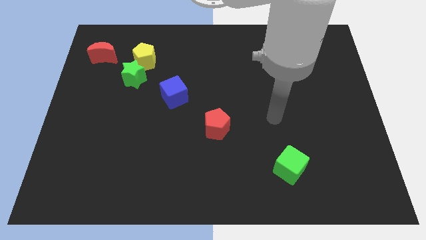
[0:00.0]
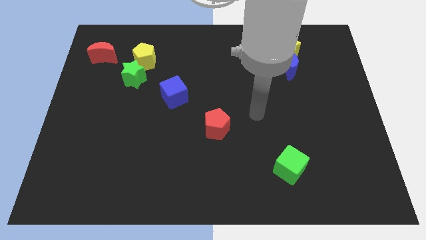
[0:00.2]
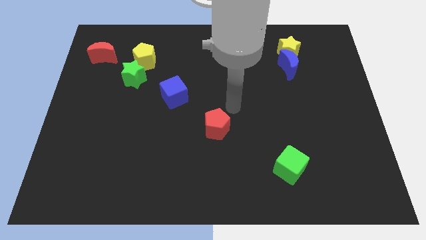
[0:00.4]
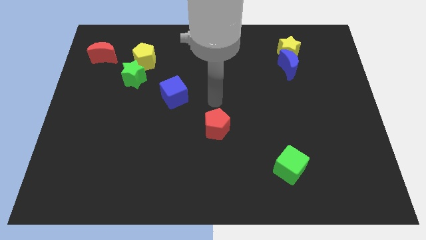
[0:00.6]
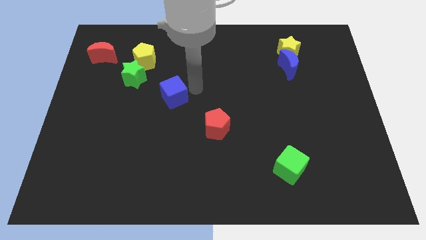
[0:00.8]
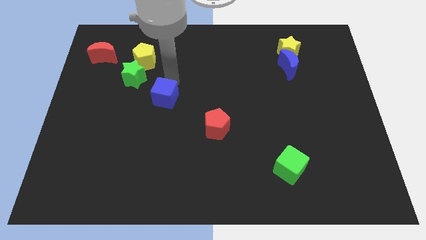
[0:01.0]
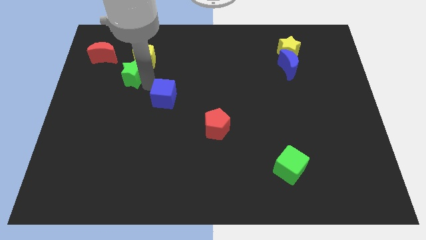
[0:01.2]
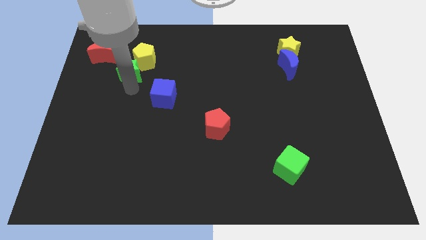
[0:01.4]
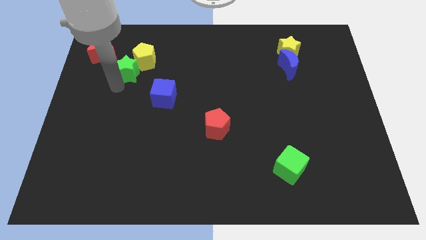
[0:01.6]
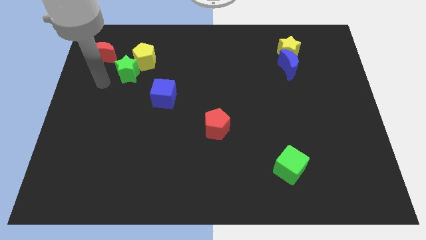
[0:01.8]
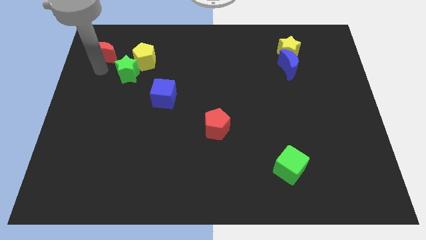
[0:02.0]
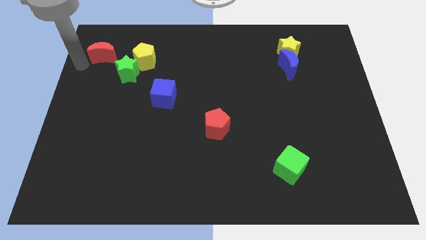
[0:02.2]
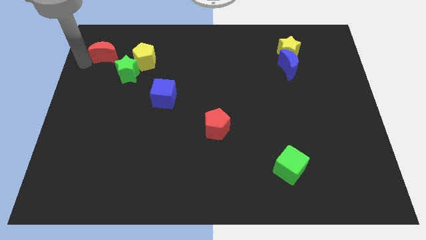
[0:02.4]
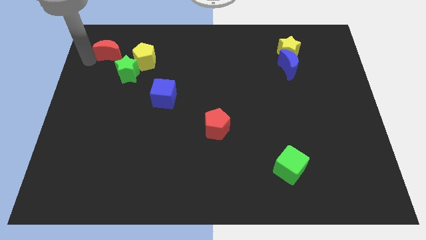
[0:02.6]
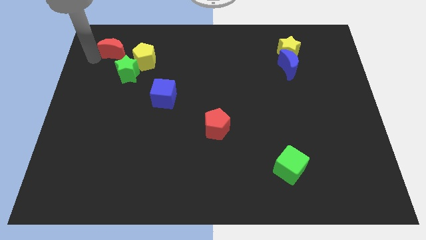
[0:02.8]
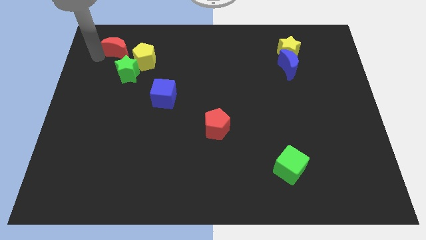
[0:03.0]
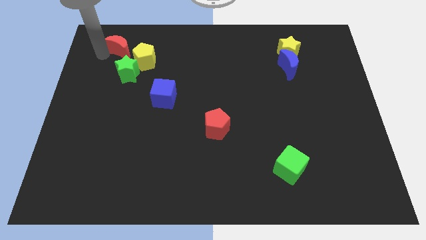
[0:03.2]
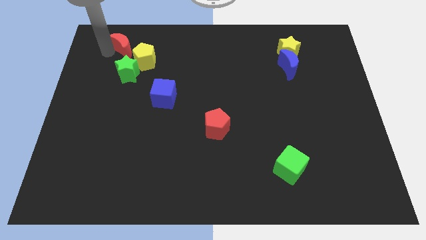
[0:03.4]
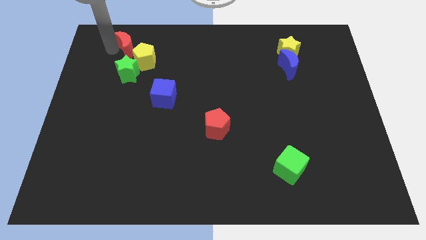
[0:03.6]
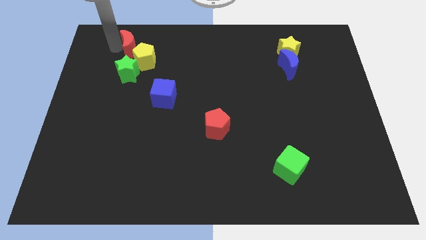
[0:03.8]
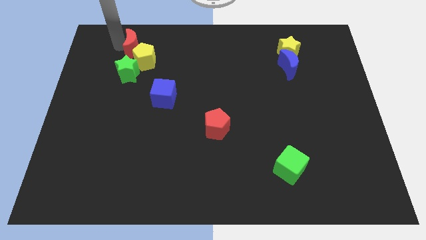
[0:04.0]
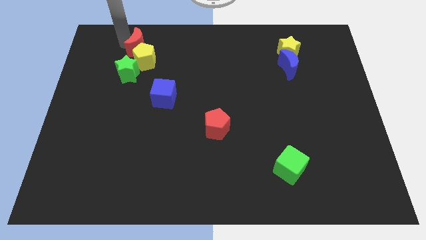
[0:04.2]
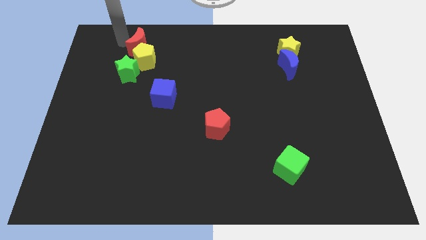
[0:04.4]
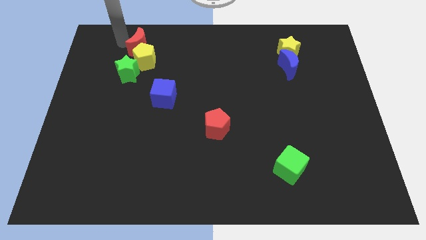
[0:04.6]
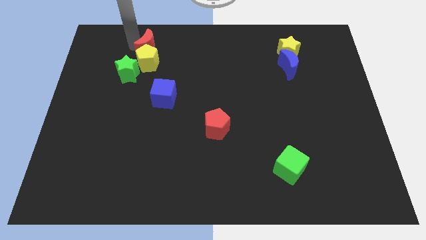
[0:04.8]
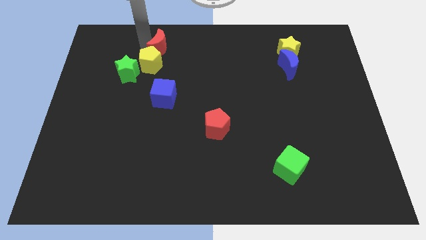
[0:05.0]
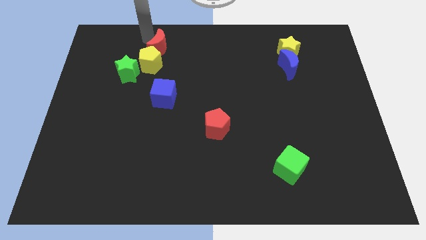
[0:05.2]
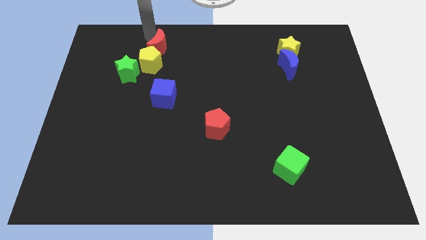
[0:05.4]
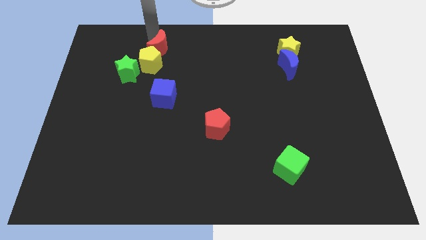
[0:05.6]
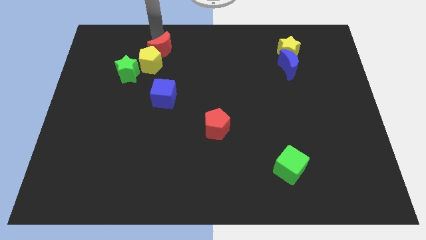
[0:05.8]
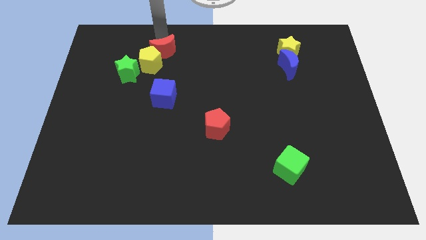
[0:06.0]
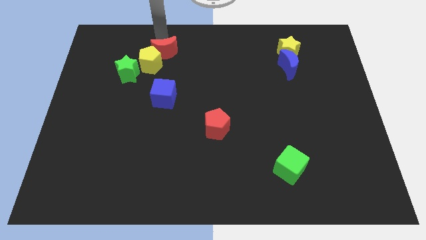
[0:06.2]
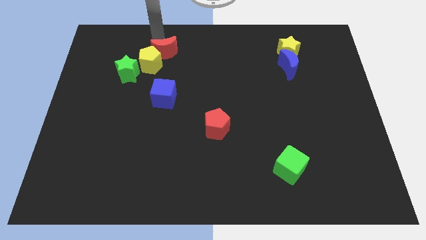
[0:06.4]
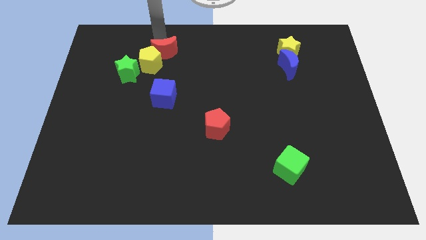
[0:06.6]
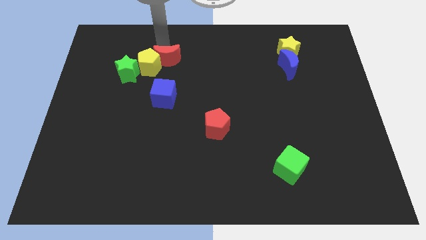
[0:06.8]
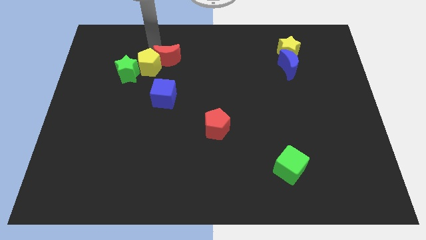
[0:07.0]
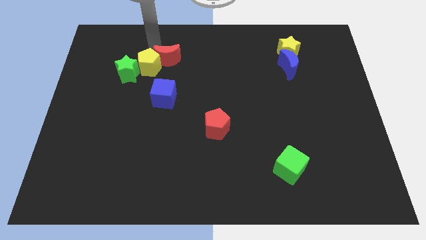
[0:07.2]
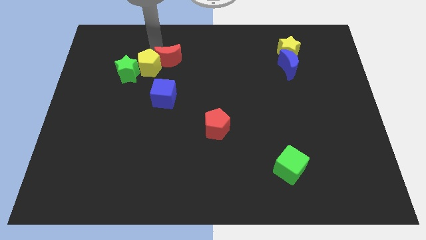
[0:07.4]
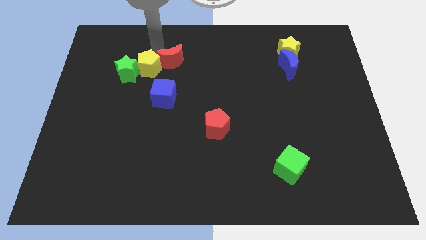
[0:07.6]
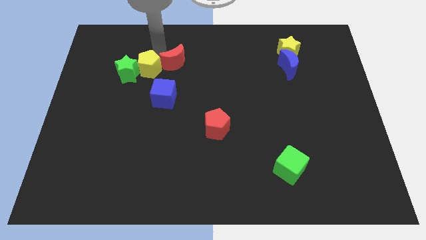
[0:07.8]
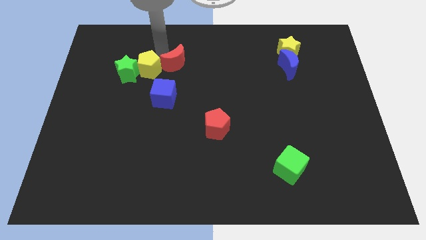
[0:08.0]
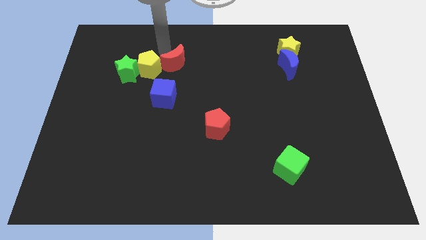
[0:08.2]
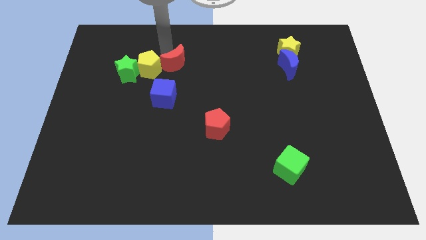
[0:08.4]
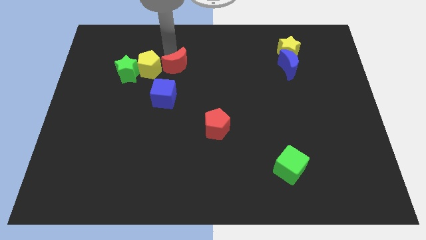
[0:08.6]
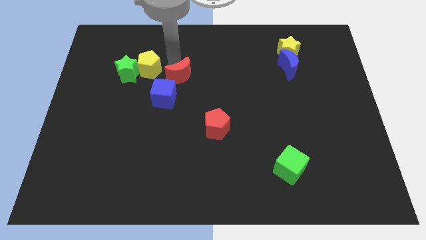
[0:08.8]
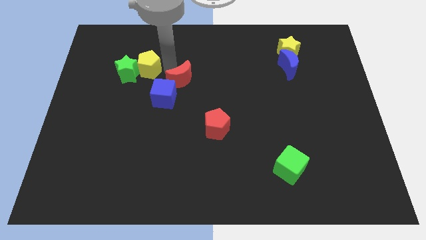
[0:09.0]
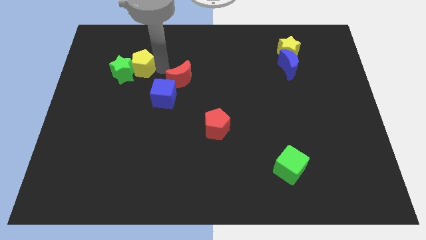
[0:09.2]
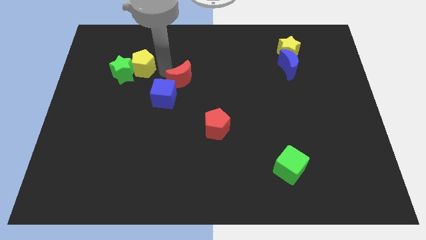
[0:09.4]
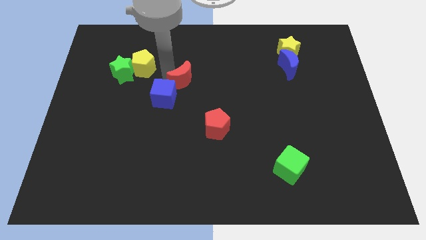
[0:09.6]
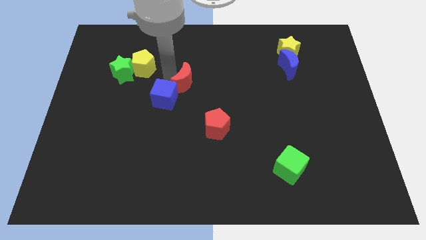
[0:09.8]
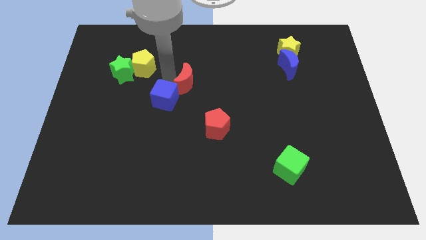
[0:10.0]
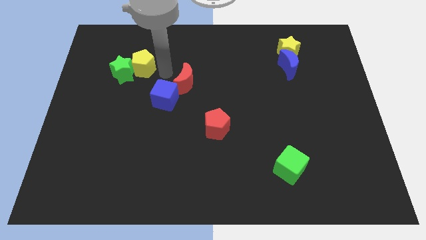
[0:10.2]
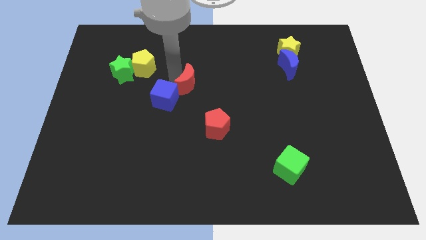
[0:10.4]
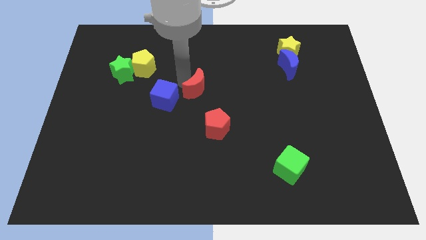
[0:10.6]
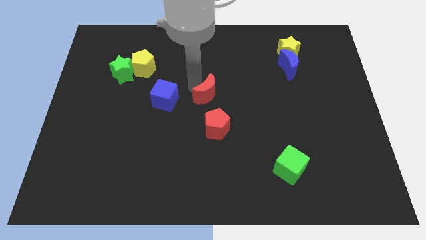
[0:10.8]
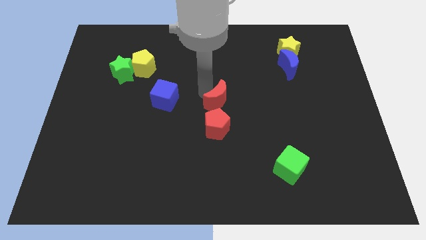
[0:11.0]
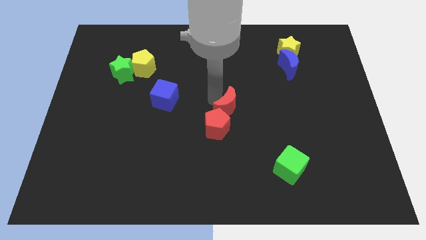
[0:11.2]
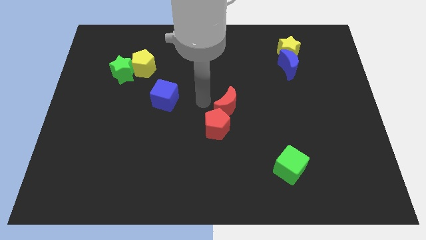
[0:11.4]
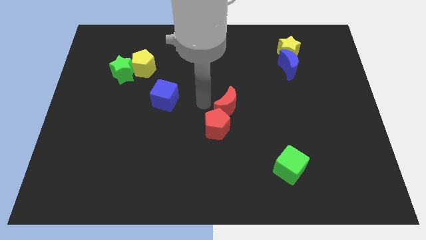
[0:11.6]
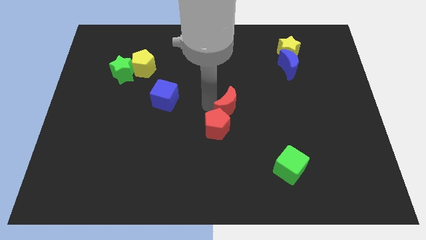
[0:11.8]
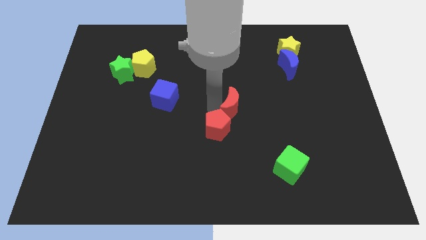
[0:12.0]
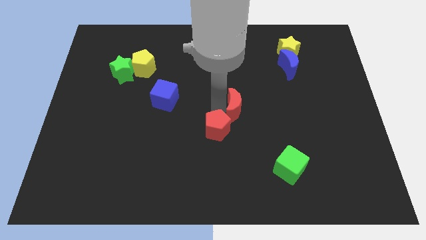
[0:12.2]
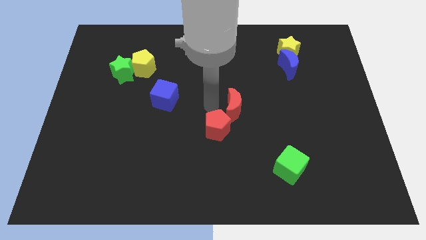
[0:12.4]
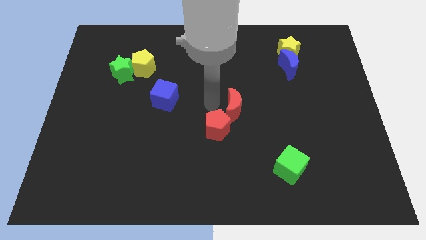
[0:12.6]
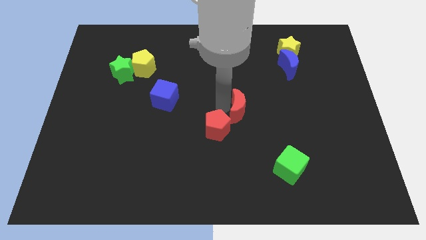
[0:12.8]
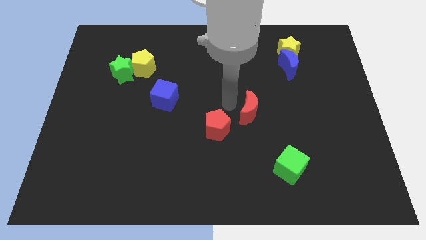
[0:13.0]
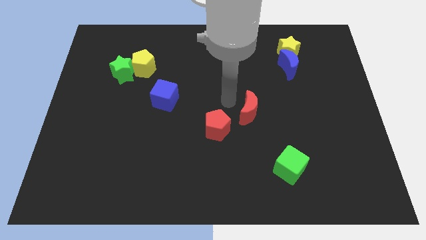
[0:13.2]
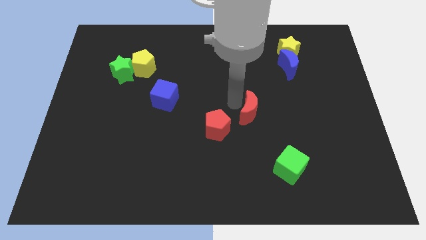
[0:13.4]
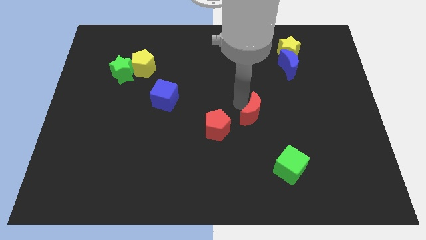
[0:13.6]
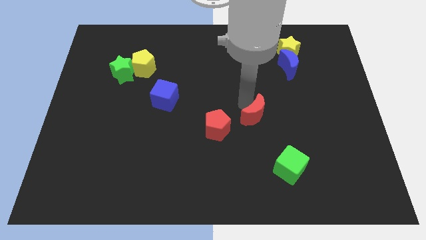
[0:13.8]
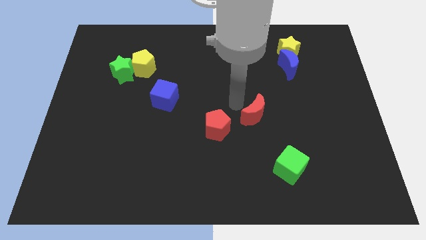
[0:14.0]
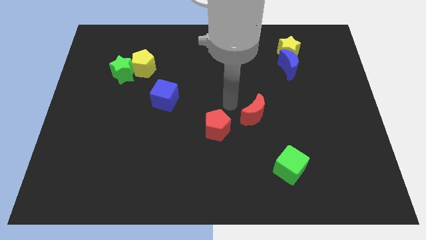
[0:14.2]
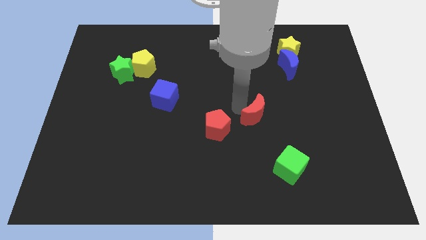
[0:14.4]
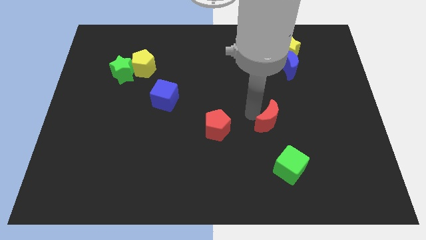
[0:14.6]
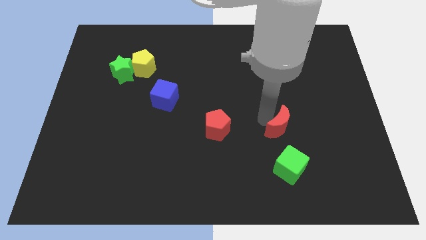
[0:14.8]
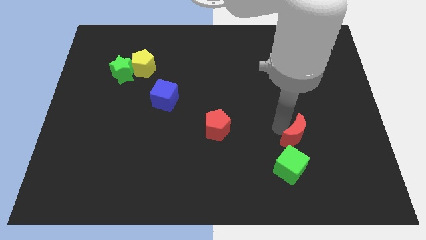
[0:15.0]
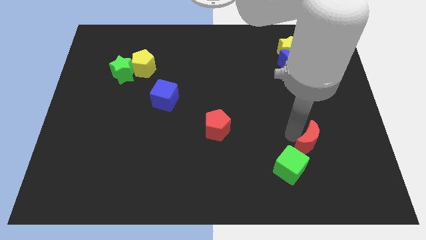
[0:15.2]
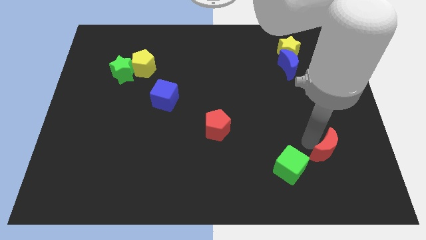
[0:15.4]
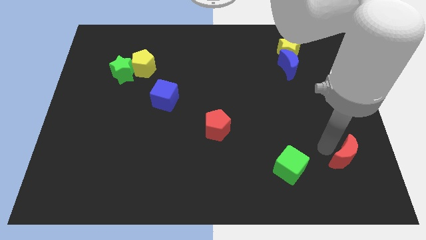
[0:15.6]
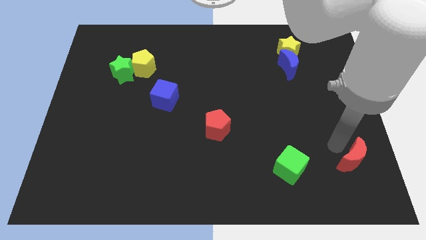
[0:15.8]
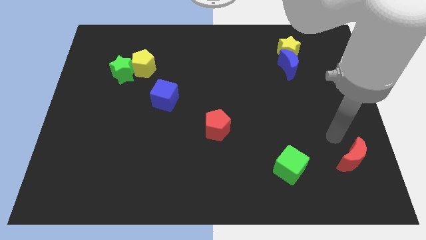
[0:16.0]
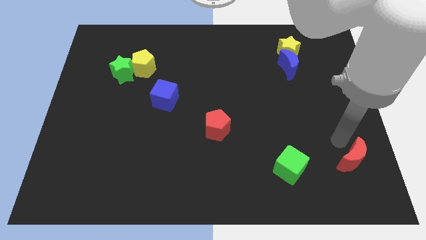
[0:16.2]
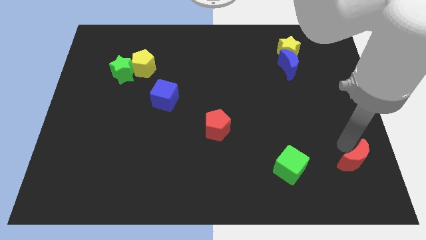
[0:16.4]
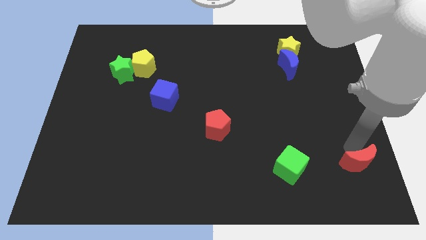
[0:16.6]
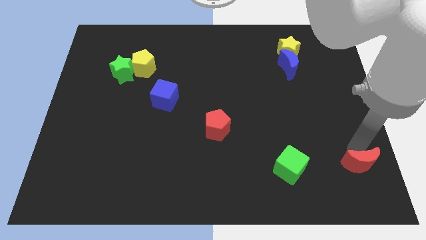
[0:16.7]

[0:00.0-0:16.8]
slide the red moon to the bottom right corner
